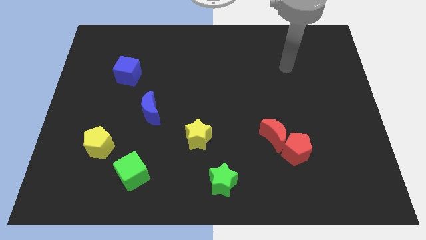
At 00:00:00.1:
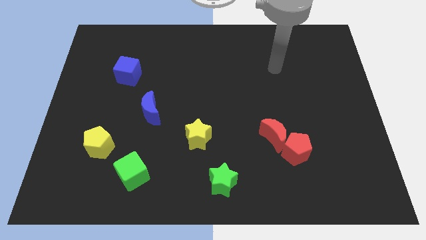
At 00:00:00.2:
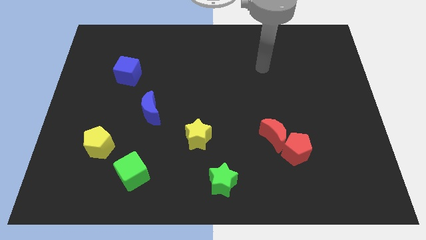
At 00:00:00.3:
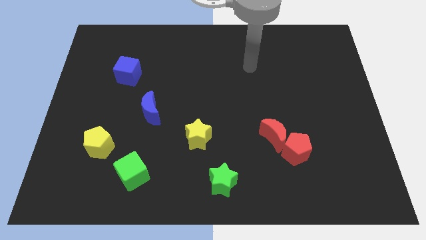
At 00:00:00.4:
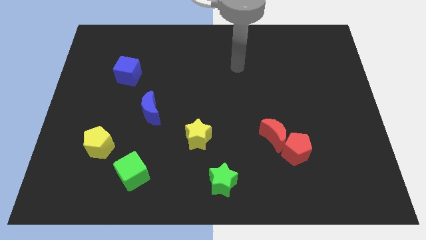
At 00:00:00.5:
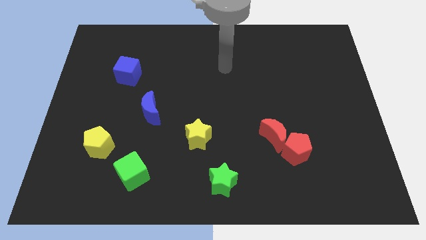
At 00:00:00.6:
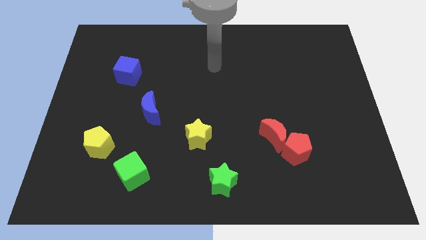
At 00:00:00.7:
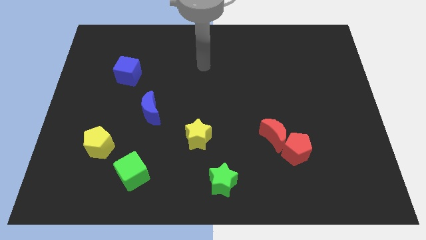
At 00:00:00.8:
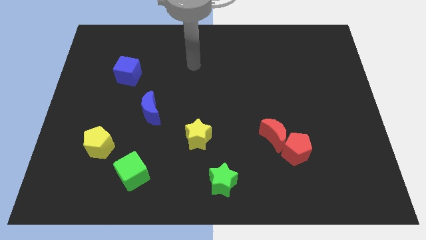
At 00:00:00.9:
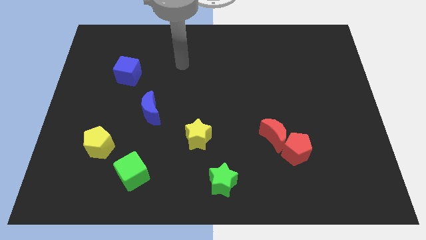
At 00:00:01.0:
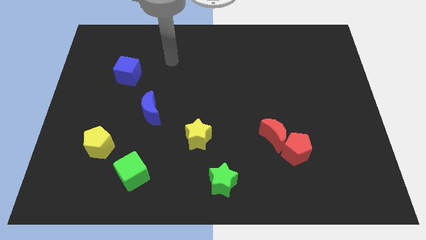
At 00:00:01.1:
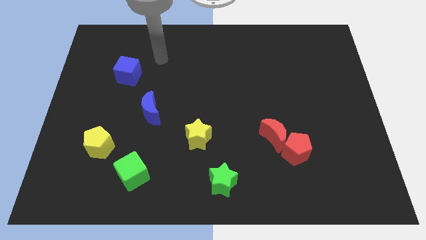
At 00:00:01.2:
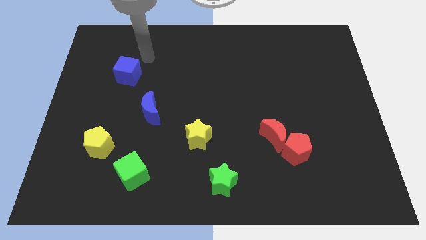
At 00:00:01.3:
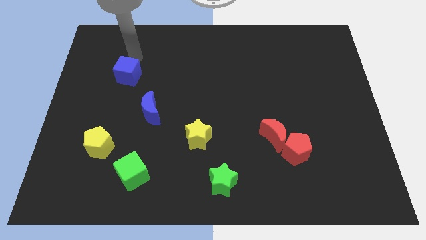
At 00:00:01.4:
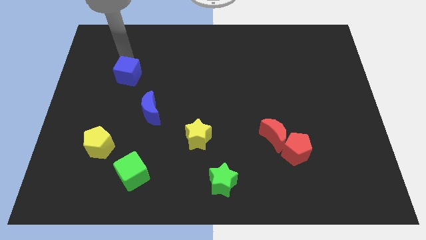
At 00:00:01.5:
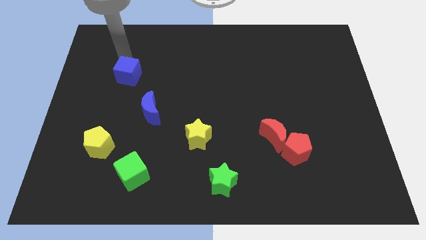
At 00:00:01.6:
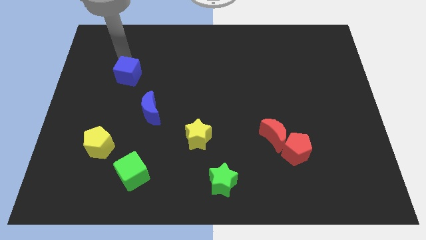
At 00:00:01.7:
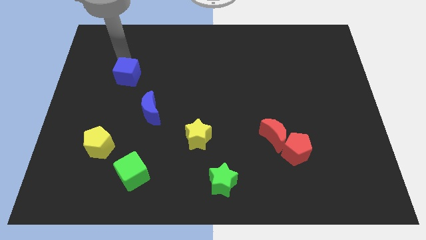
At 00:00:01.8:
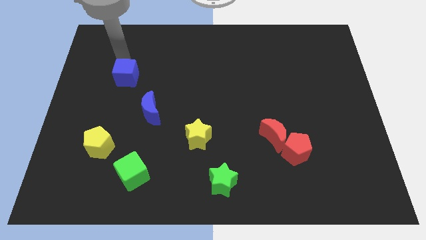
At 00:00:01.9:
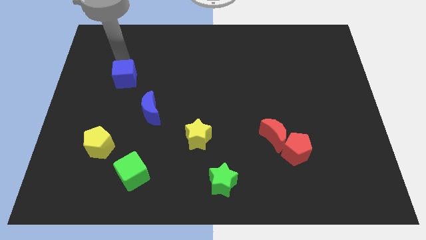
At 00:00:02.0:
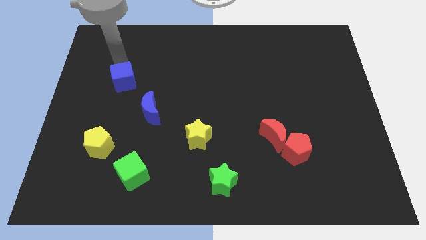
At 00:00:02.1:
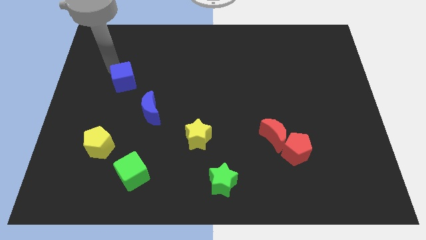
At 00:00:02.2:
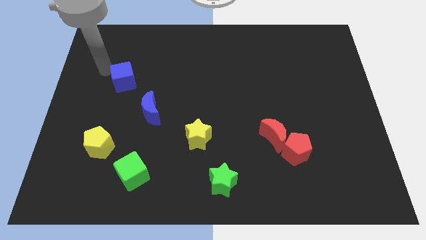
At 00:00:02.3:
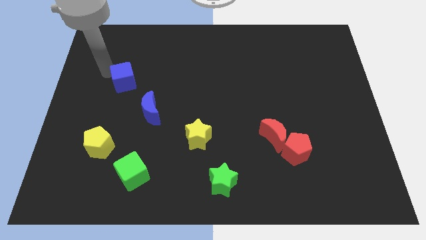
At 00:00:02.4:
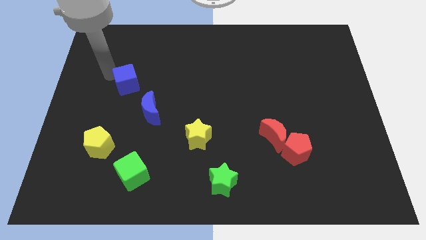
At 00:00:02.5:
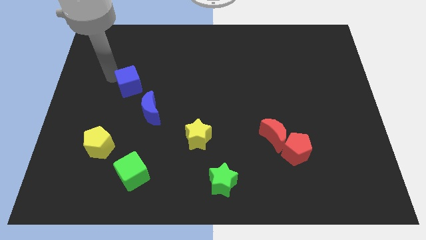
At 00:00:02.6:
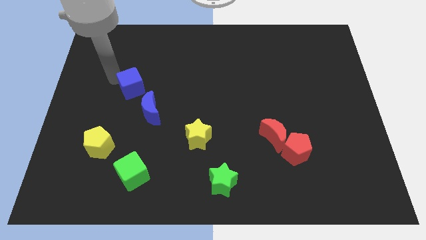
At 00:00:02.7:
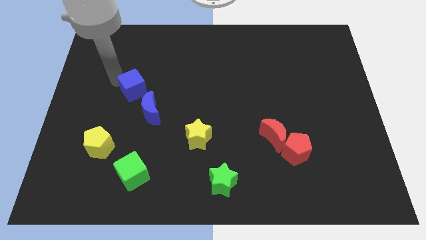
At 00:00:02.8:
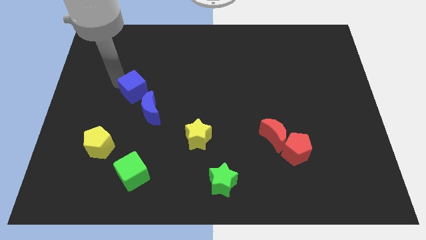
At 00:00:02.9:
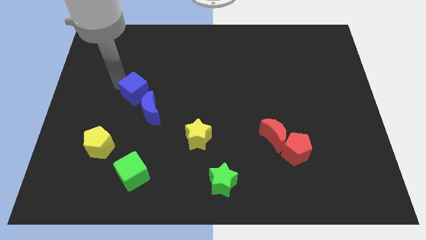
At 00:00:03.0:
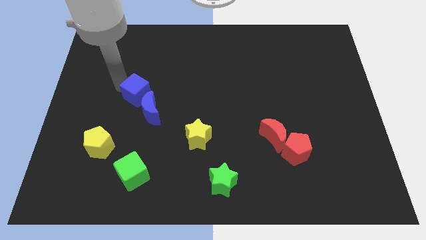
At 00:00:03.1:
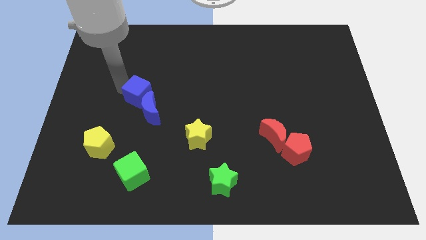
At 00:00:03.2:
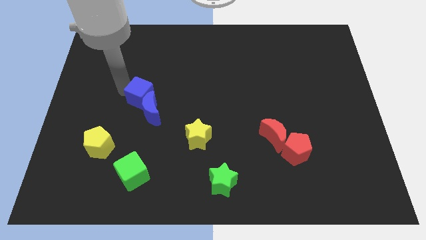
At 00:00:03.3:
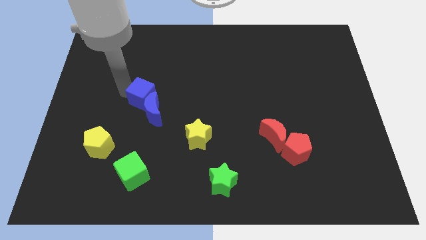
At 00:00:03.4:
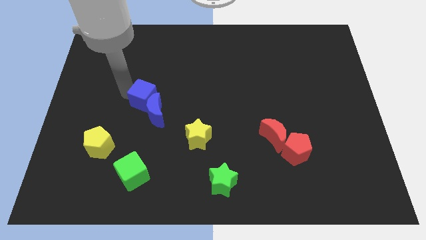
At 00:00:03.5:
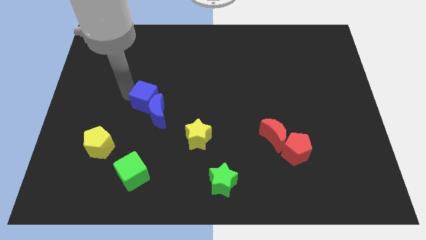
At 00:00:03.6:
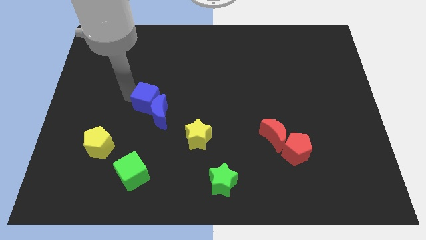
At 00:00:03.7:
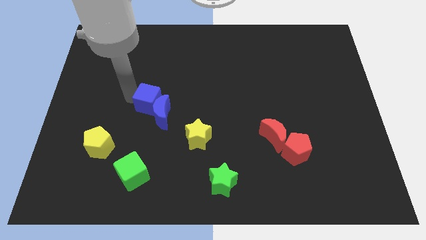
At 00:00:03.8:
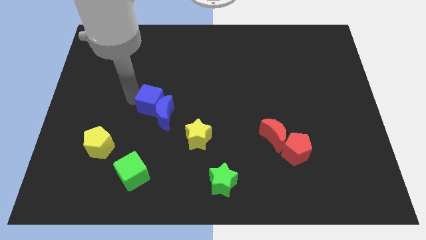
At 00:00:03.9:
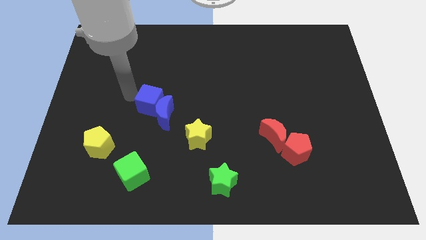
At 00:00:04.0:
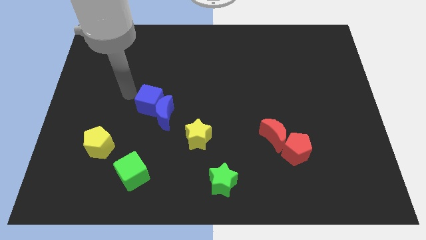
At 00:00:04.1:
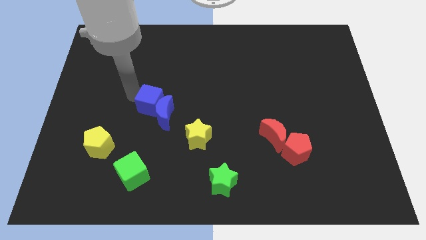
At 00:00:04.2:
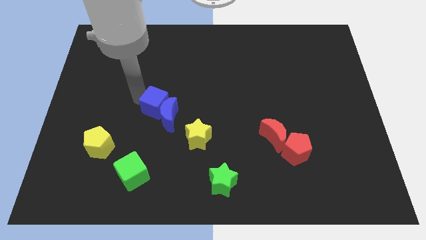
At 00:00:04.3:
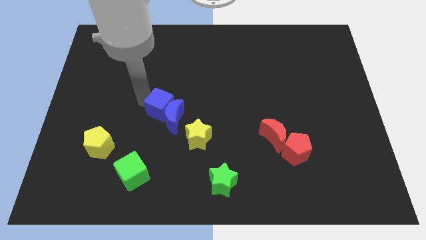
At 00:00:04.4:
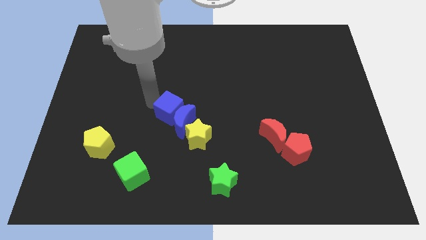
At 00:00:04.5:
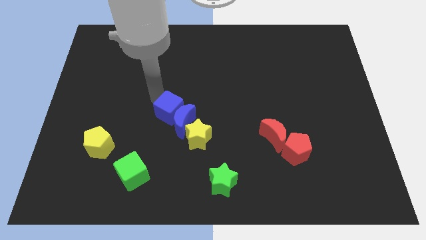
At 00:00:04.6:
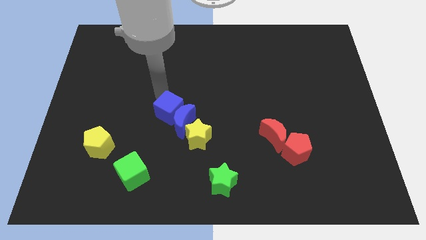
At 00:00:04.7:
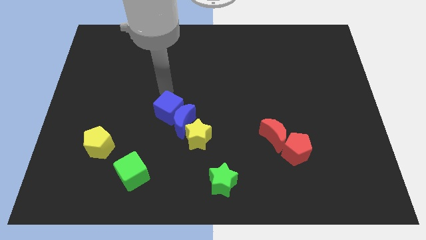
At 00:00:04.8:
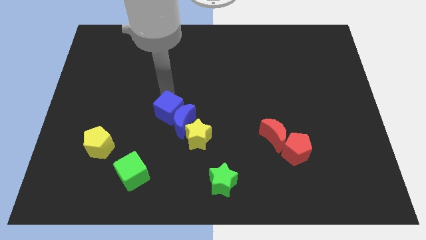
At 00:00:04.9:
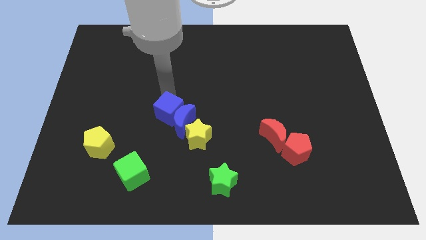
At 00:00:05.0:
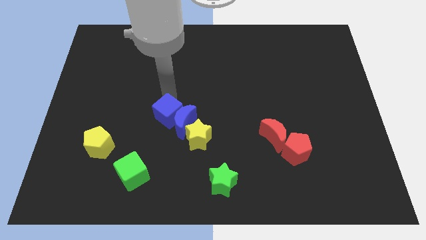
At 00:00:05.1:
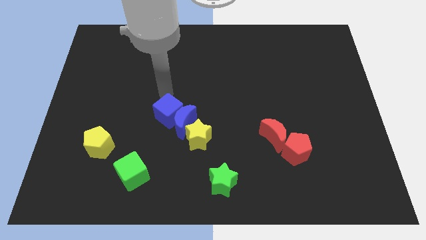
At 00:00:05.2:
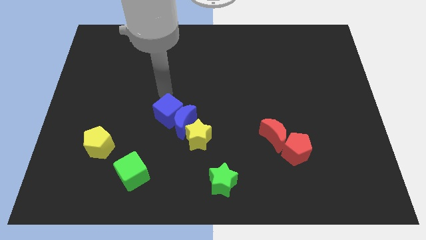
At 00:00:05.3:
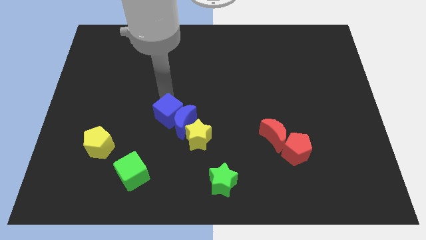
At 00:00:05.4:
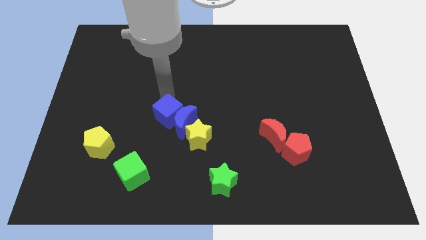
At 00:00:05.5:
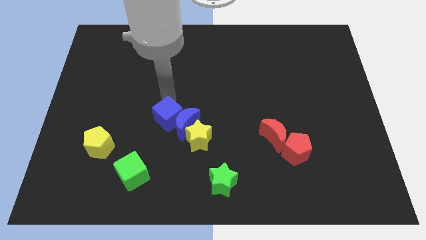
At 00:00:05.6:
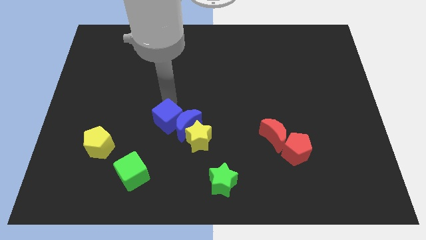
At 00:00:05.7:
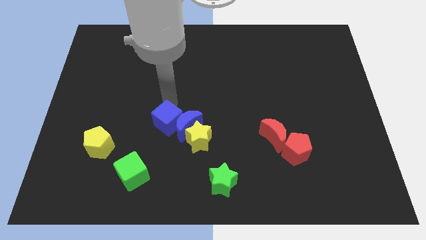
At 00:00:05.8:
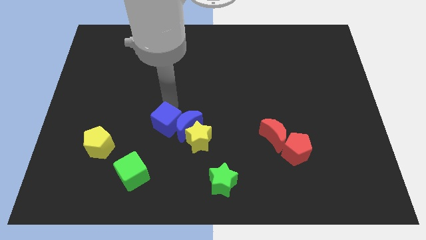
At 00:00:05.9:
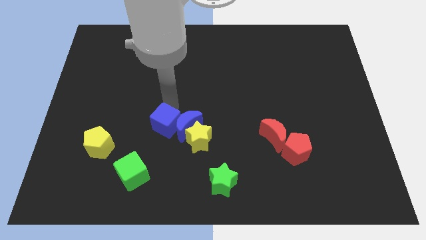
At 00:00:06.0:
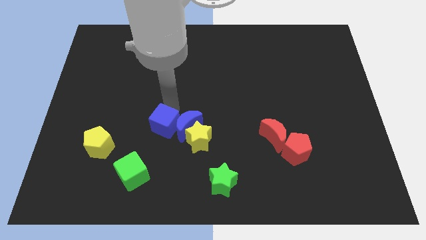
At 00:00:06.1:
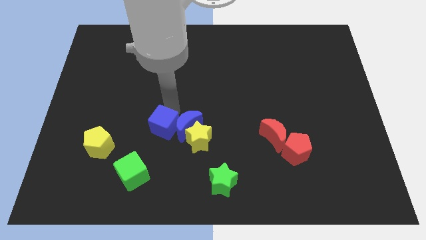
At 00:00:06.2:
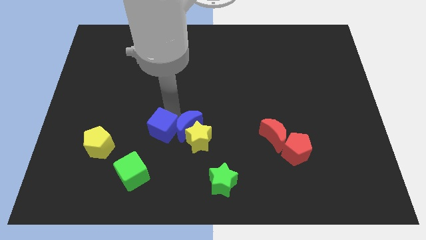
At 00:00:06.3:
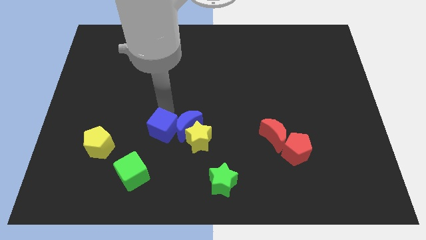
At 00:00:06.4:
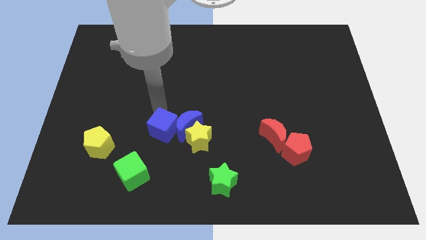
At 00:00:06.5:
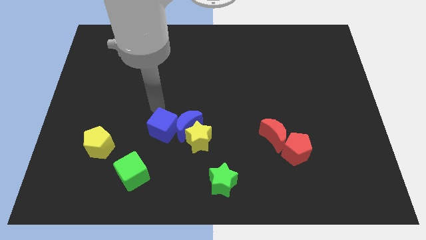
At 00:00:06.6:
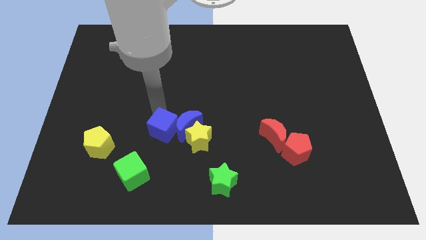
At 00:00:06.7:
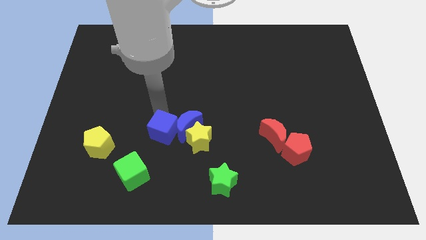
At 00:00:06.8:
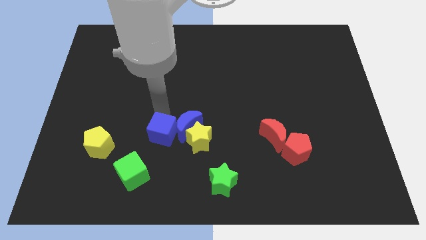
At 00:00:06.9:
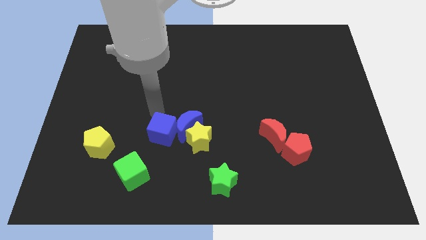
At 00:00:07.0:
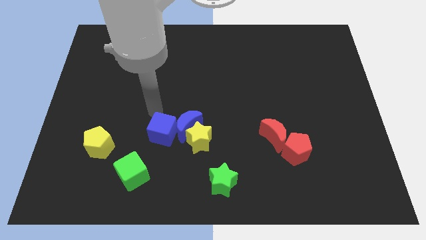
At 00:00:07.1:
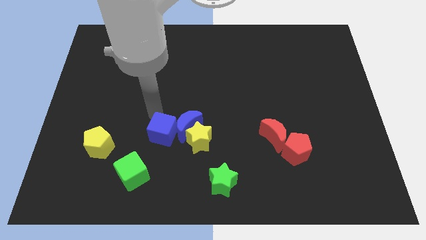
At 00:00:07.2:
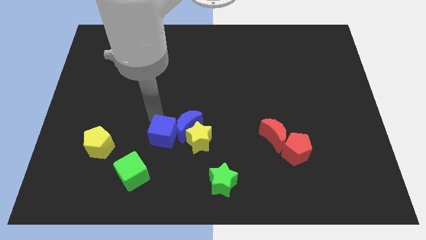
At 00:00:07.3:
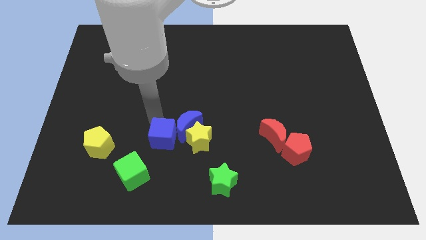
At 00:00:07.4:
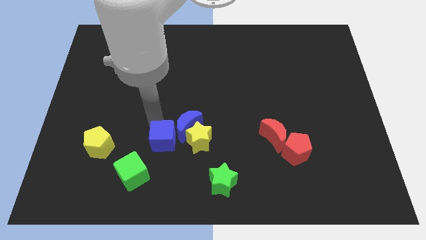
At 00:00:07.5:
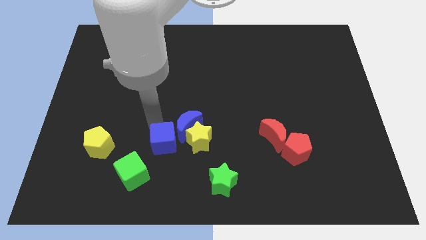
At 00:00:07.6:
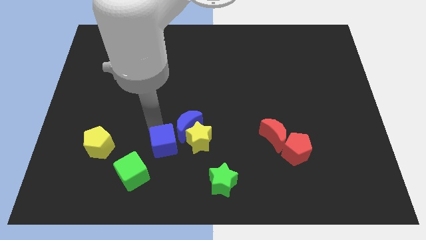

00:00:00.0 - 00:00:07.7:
move the blue cube to the bottom left of the yellow star

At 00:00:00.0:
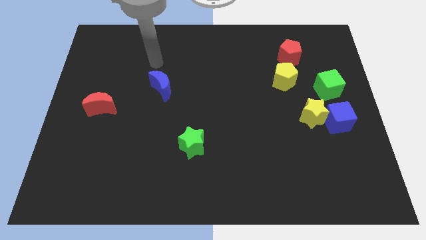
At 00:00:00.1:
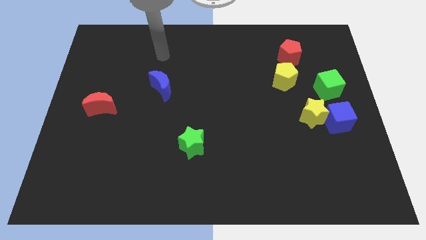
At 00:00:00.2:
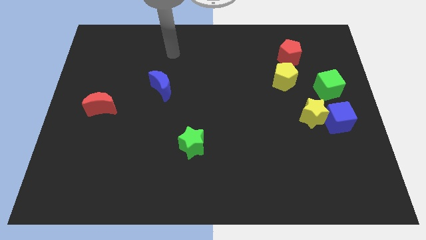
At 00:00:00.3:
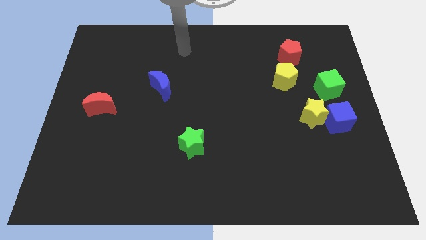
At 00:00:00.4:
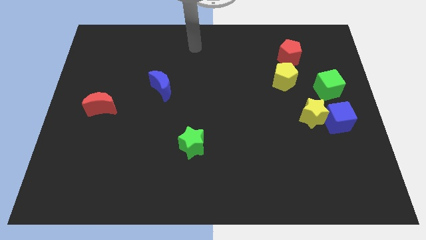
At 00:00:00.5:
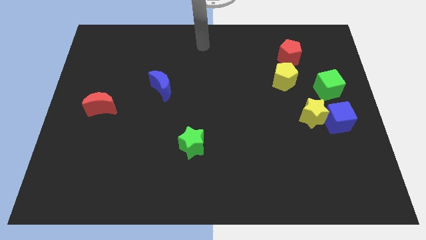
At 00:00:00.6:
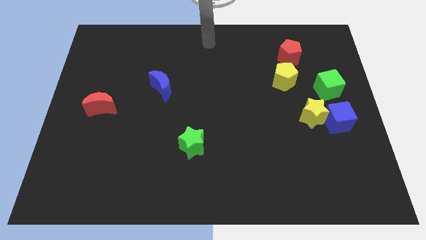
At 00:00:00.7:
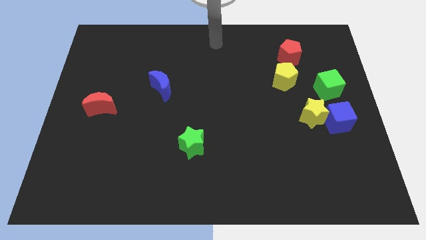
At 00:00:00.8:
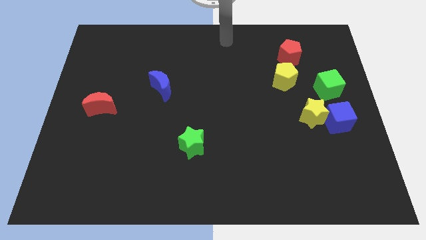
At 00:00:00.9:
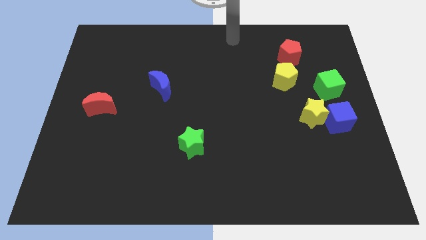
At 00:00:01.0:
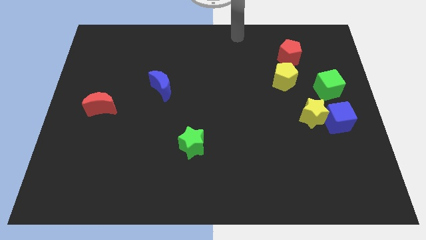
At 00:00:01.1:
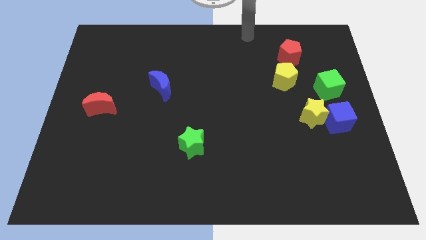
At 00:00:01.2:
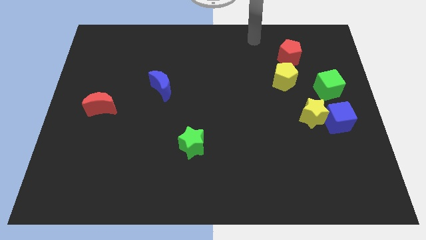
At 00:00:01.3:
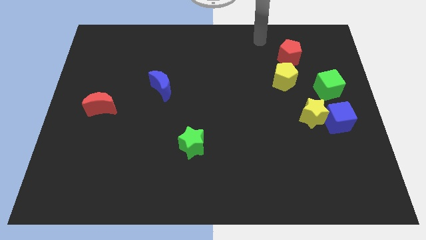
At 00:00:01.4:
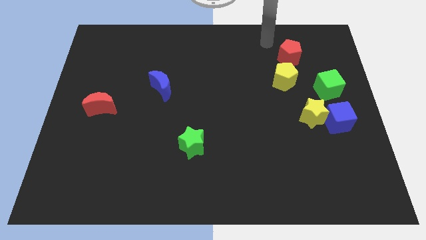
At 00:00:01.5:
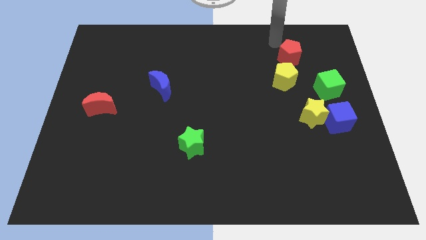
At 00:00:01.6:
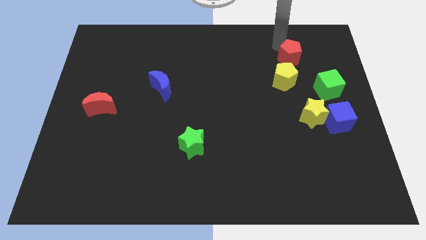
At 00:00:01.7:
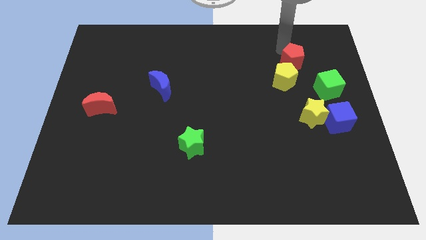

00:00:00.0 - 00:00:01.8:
slide the red pentagon to the top left side of the green cube
